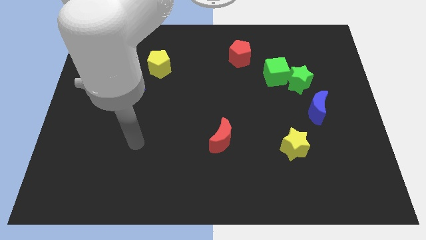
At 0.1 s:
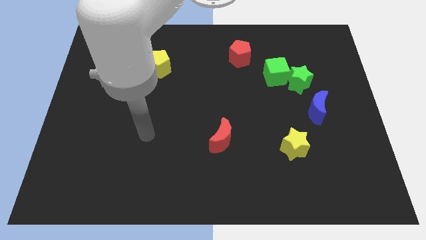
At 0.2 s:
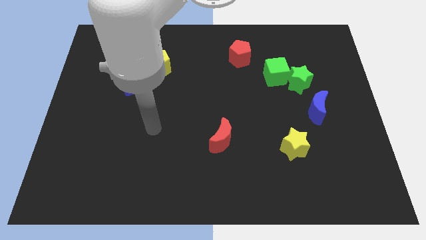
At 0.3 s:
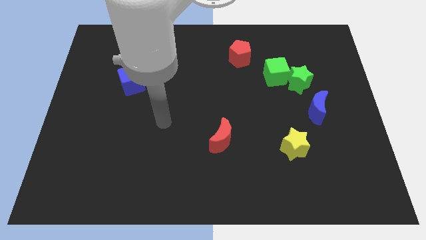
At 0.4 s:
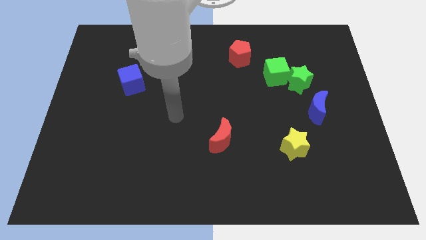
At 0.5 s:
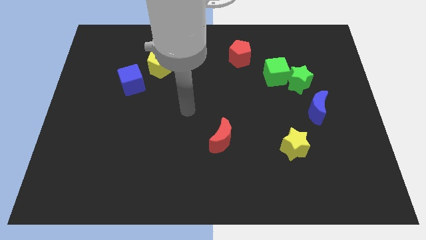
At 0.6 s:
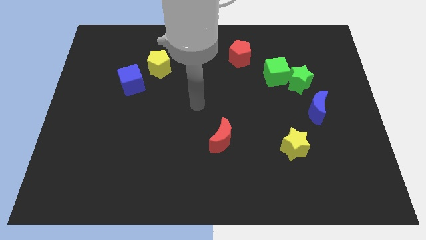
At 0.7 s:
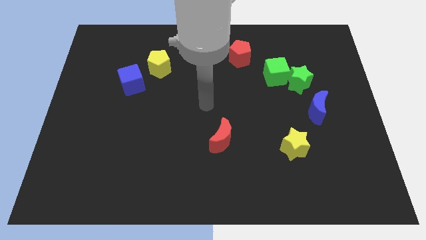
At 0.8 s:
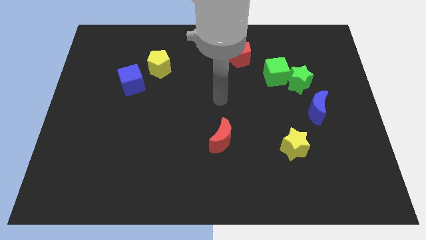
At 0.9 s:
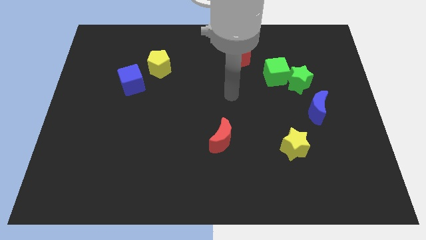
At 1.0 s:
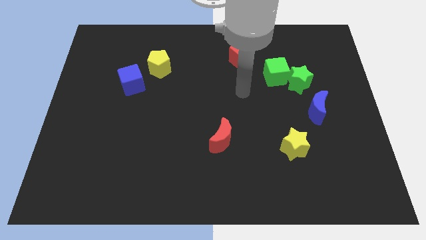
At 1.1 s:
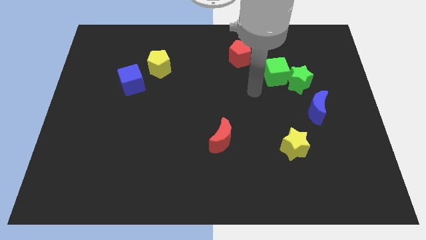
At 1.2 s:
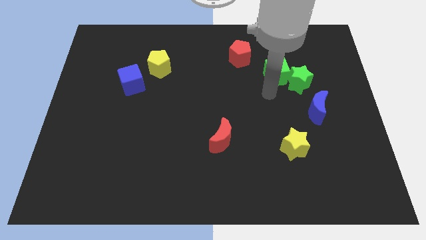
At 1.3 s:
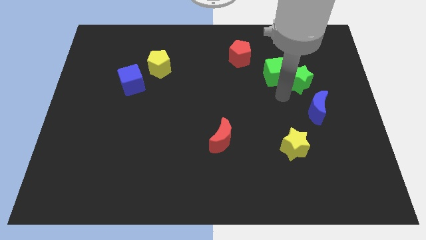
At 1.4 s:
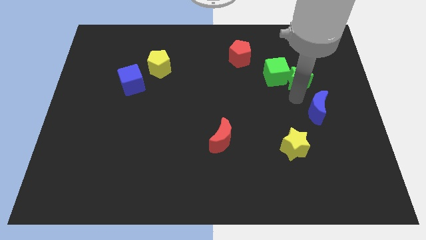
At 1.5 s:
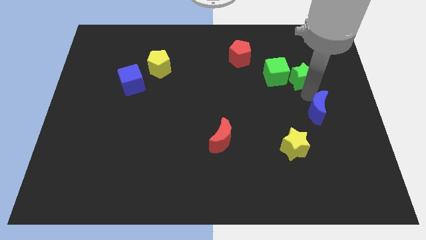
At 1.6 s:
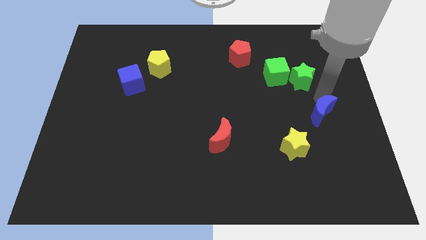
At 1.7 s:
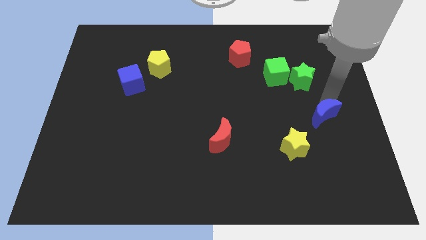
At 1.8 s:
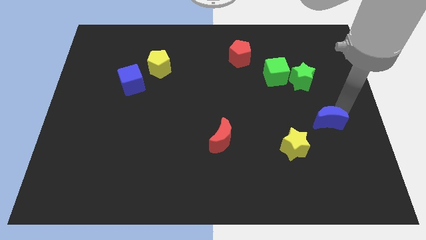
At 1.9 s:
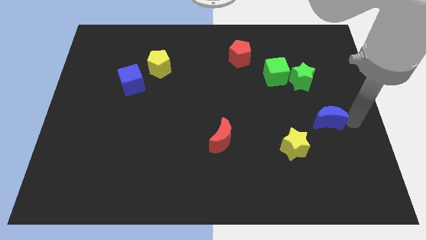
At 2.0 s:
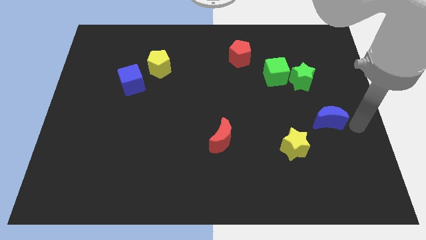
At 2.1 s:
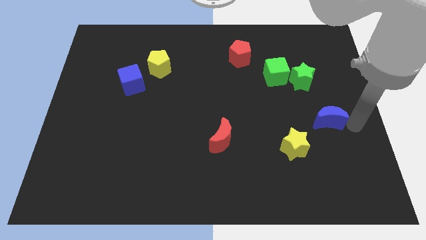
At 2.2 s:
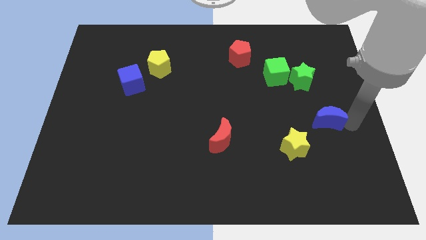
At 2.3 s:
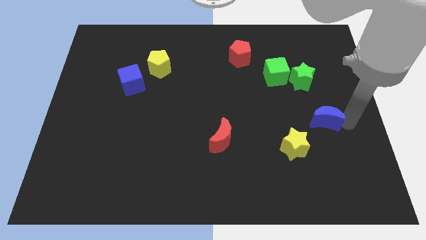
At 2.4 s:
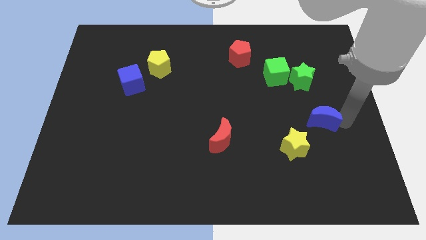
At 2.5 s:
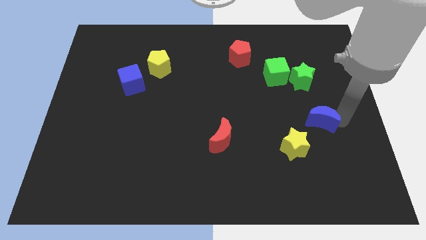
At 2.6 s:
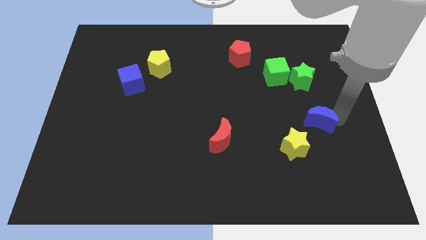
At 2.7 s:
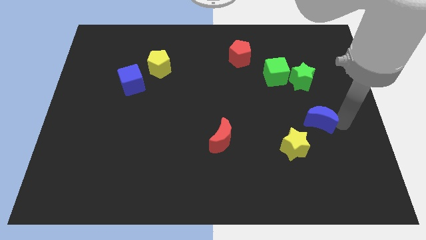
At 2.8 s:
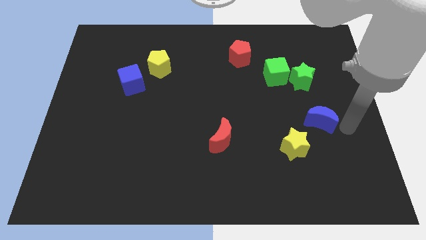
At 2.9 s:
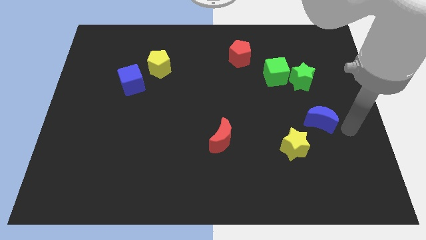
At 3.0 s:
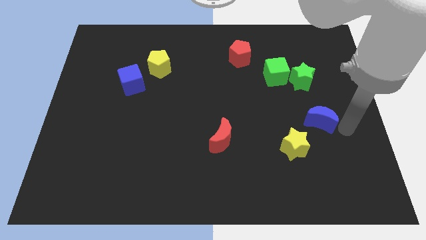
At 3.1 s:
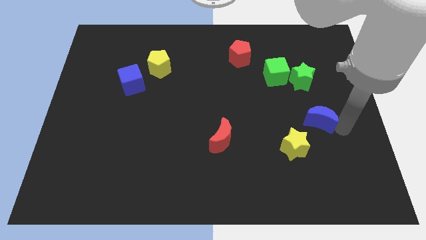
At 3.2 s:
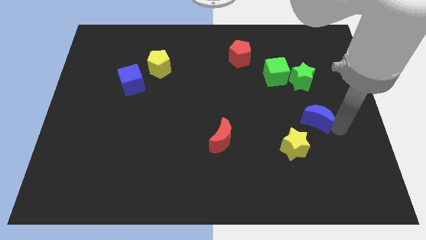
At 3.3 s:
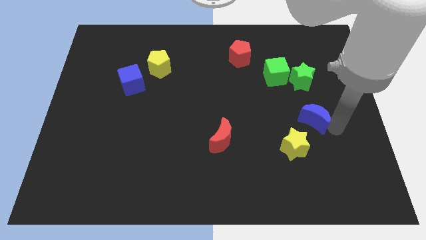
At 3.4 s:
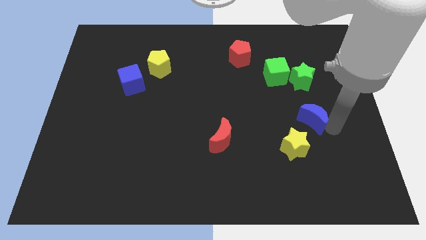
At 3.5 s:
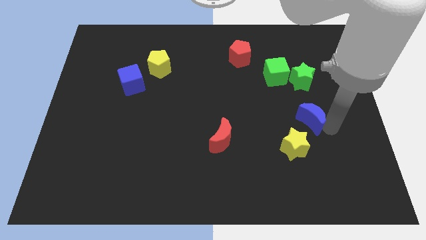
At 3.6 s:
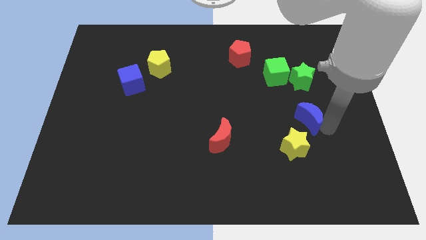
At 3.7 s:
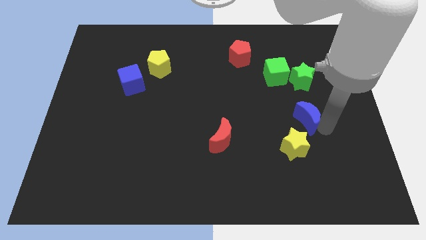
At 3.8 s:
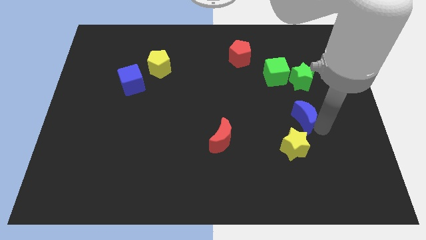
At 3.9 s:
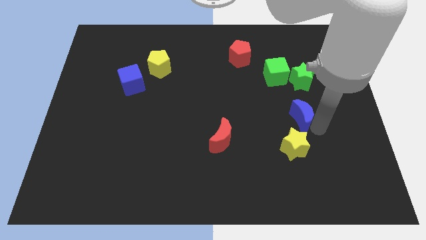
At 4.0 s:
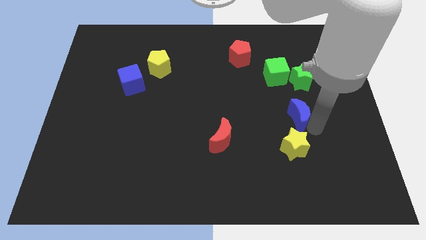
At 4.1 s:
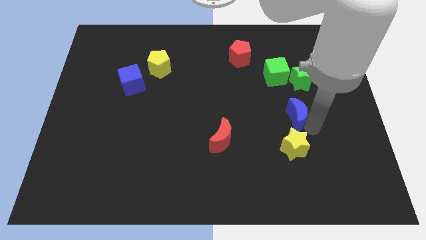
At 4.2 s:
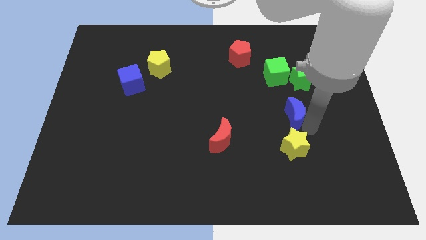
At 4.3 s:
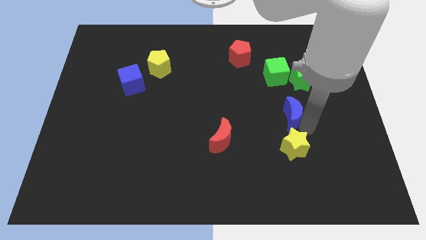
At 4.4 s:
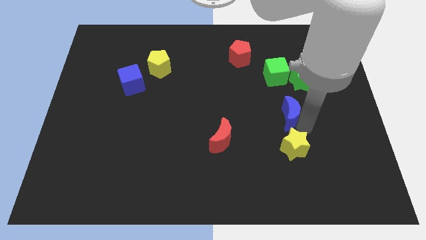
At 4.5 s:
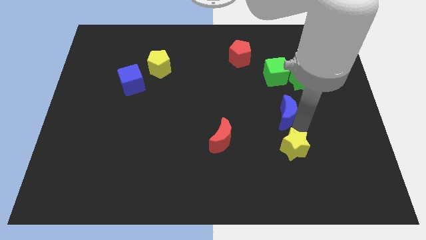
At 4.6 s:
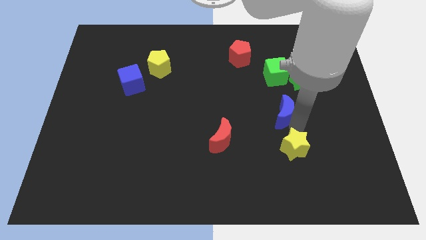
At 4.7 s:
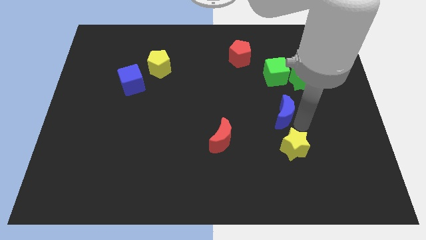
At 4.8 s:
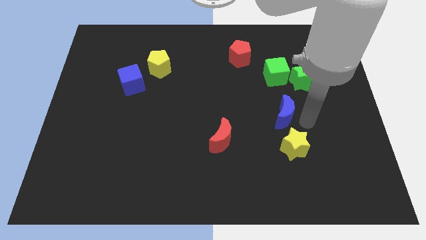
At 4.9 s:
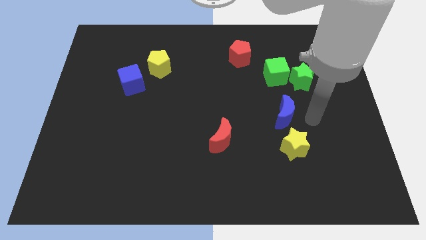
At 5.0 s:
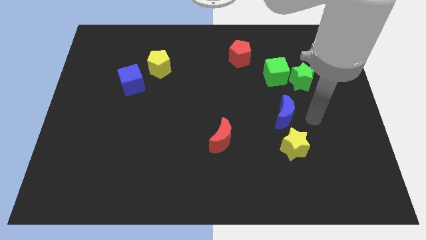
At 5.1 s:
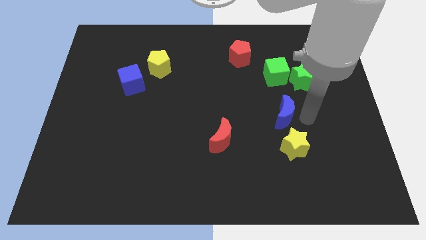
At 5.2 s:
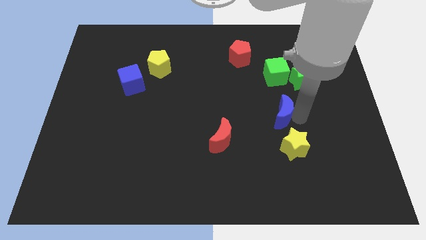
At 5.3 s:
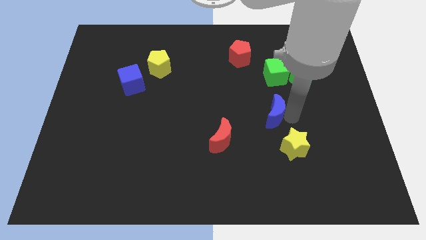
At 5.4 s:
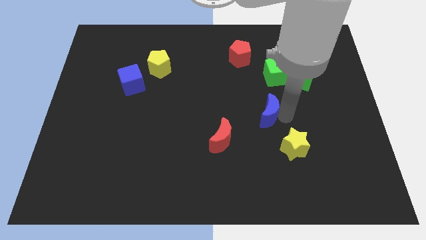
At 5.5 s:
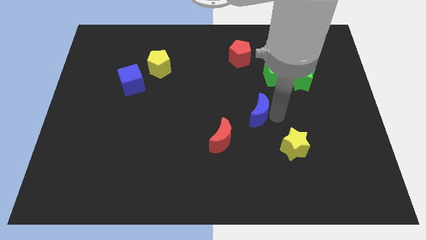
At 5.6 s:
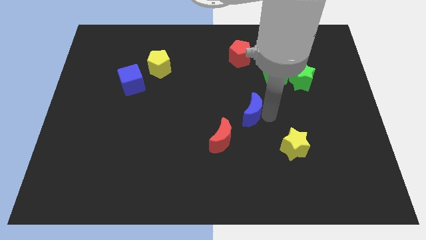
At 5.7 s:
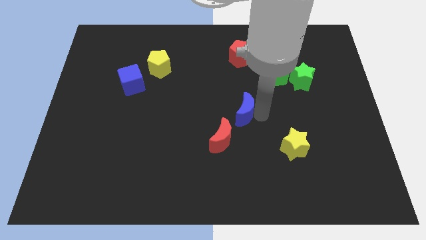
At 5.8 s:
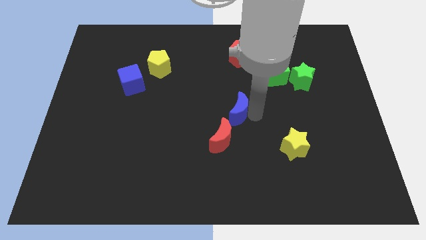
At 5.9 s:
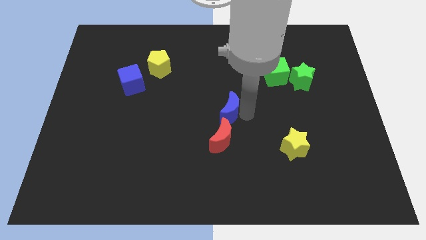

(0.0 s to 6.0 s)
slide the blue moon to the left

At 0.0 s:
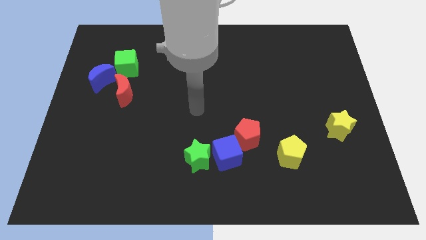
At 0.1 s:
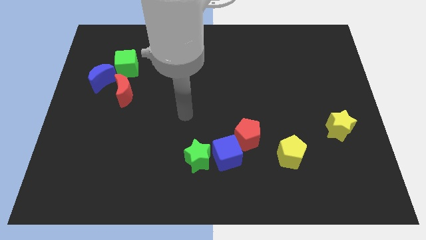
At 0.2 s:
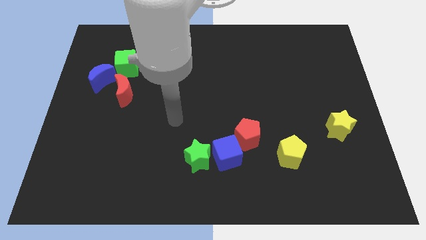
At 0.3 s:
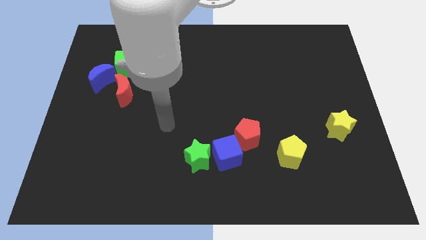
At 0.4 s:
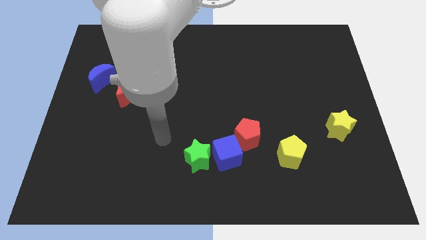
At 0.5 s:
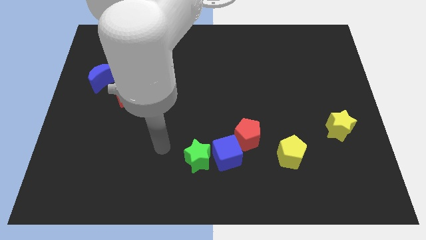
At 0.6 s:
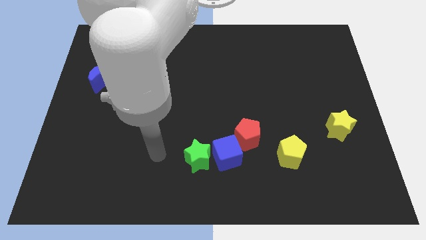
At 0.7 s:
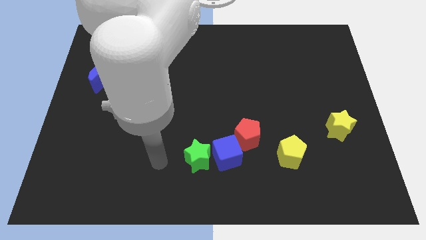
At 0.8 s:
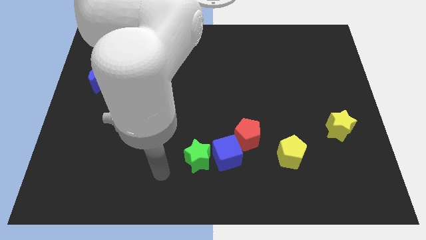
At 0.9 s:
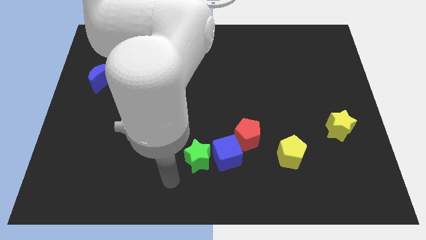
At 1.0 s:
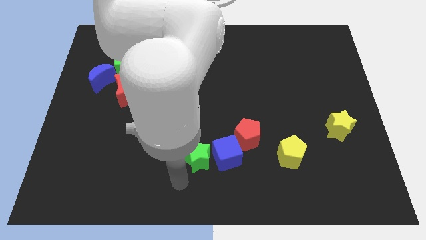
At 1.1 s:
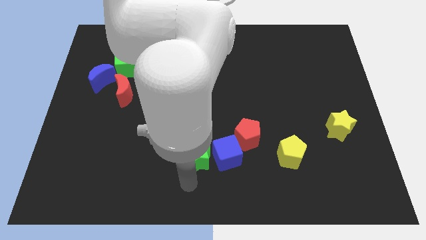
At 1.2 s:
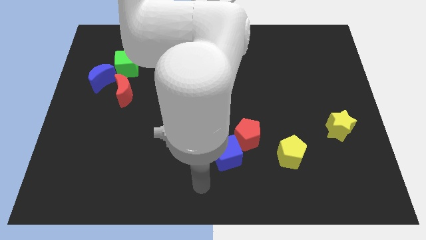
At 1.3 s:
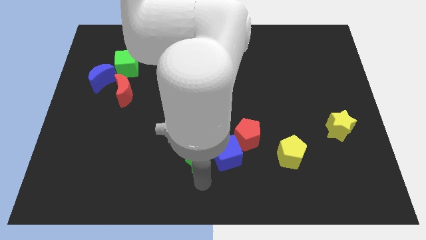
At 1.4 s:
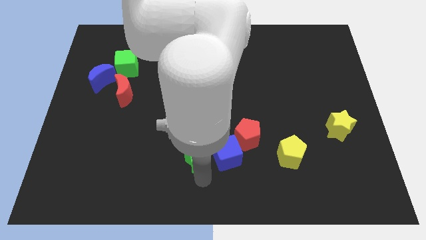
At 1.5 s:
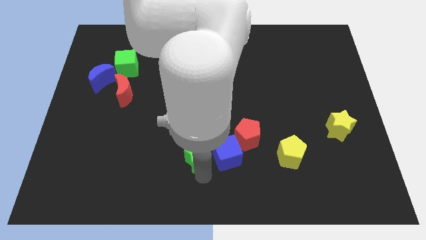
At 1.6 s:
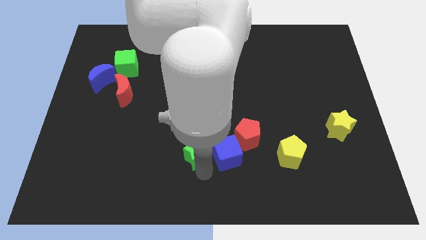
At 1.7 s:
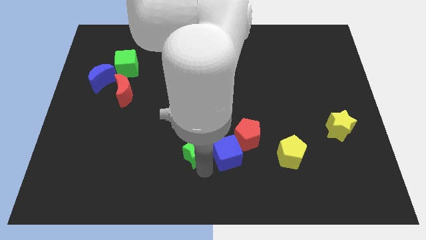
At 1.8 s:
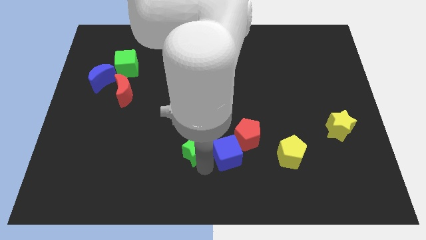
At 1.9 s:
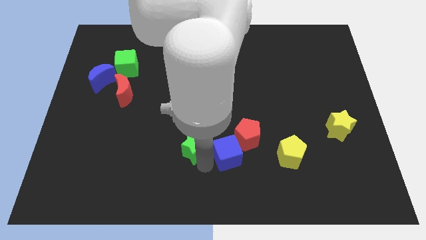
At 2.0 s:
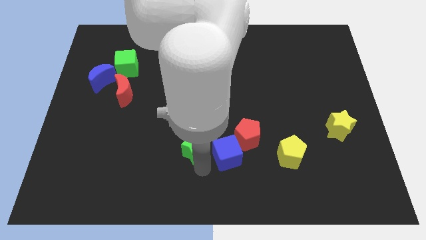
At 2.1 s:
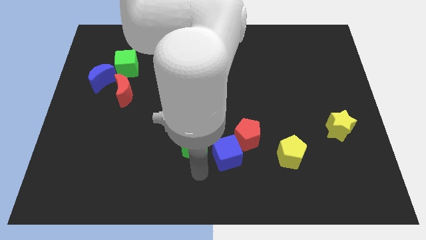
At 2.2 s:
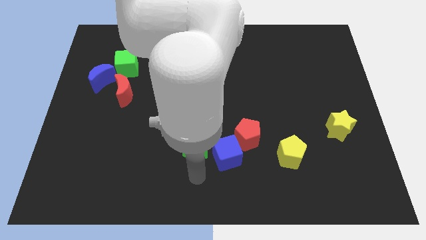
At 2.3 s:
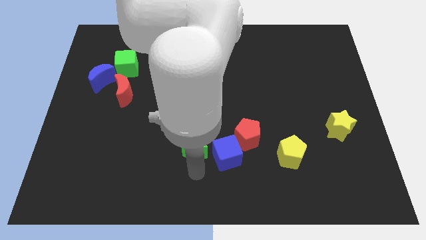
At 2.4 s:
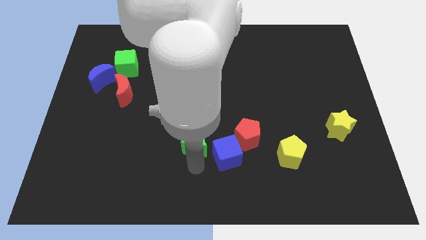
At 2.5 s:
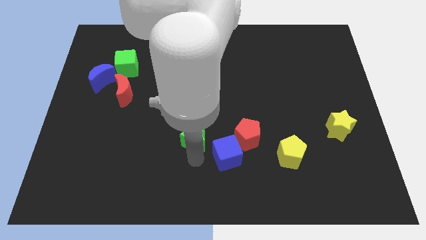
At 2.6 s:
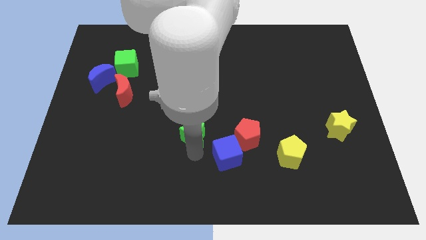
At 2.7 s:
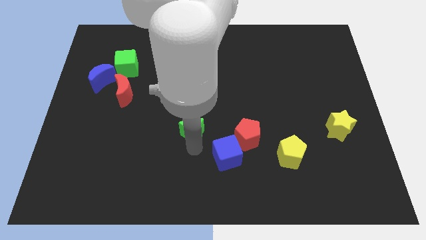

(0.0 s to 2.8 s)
slightly push the green star upwards
